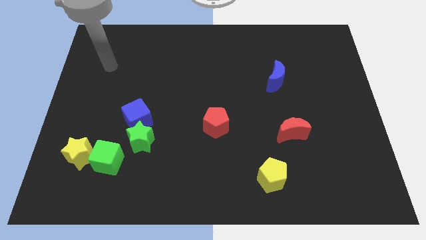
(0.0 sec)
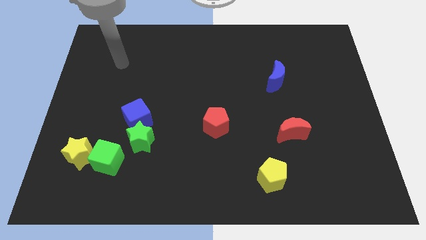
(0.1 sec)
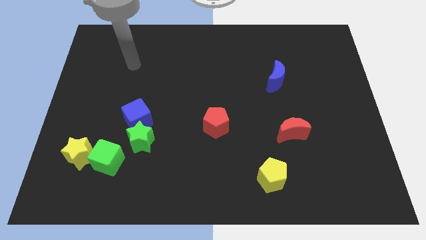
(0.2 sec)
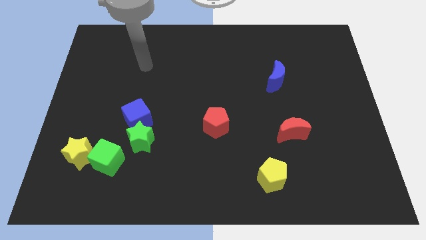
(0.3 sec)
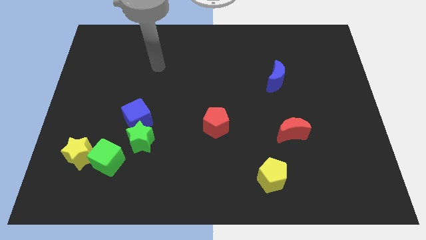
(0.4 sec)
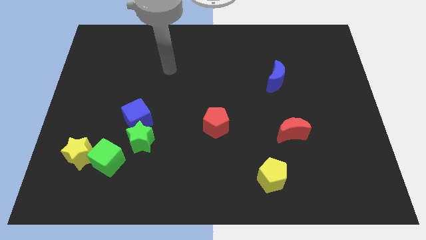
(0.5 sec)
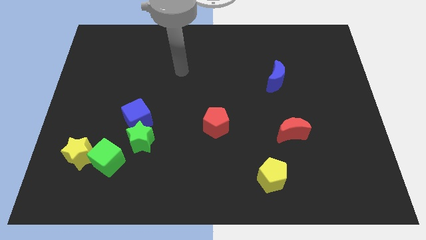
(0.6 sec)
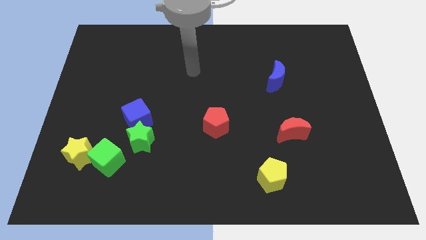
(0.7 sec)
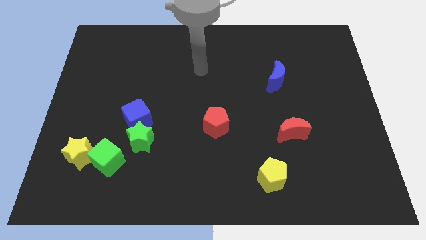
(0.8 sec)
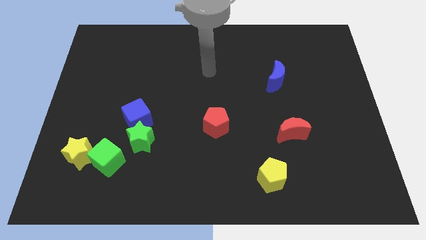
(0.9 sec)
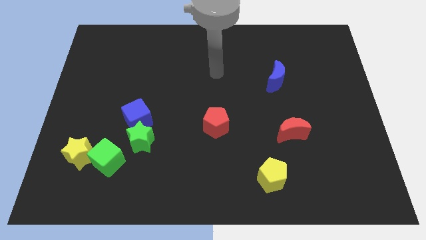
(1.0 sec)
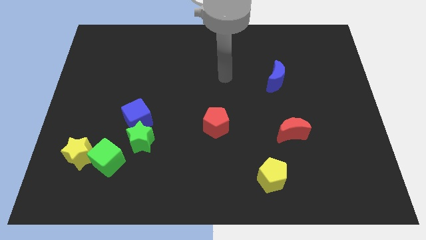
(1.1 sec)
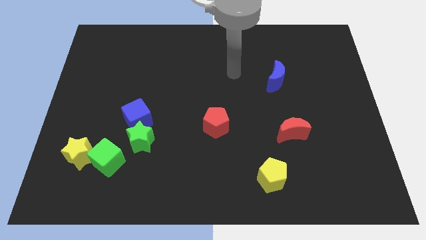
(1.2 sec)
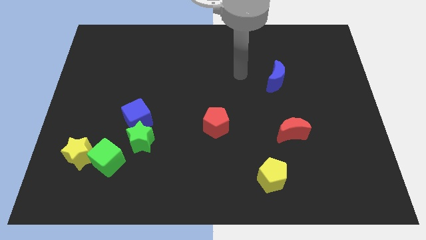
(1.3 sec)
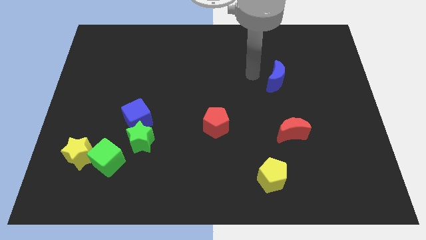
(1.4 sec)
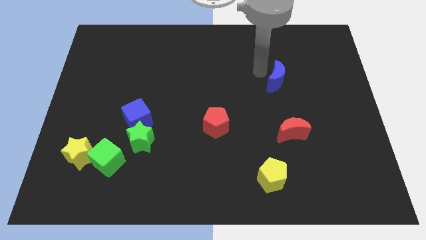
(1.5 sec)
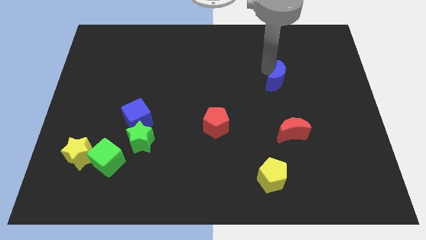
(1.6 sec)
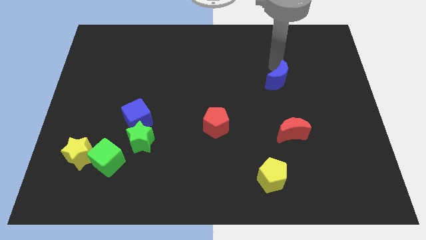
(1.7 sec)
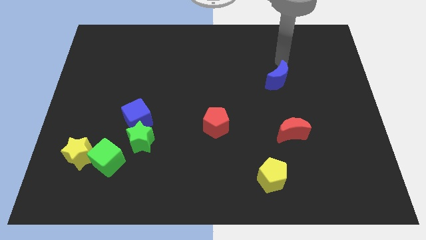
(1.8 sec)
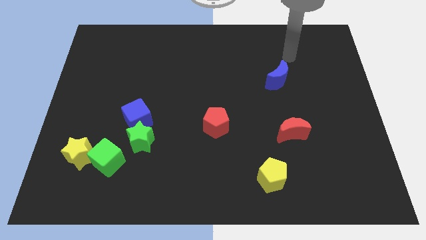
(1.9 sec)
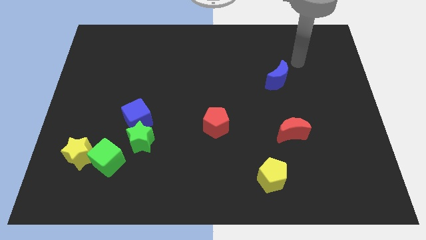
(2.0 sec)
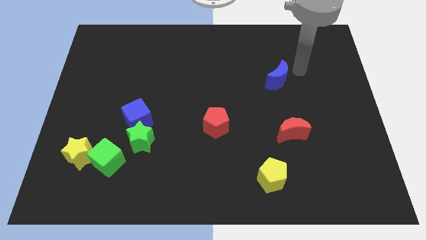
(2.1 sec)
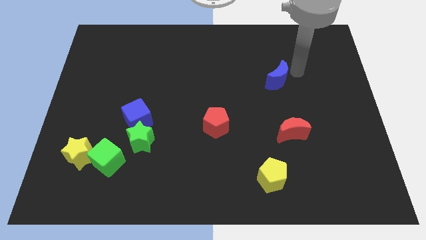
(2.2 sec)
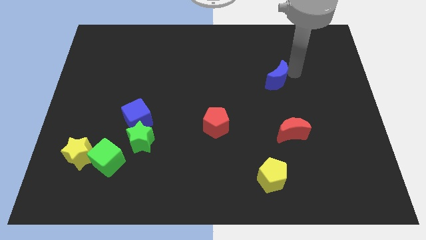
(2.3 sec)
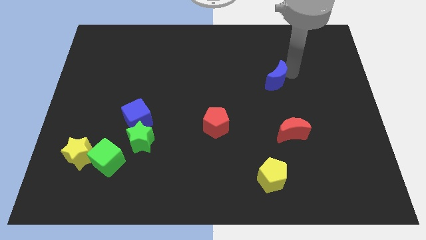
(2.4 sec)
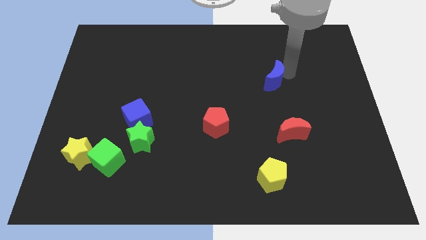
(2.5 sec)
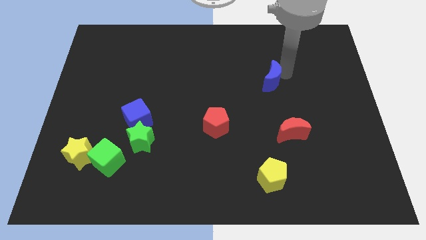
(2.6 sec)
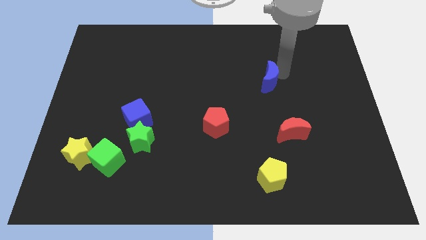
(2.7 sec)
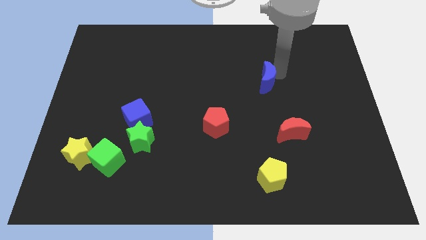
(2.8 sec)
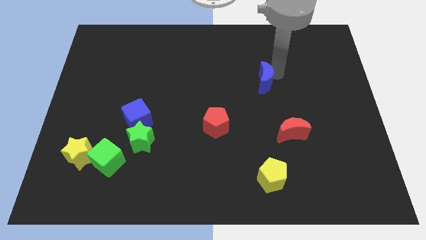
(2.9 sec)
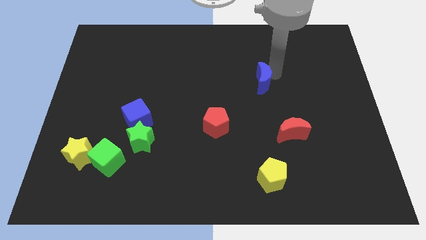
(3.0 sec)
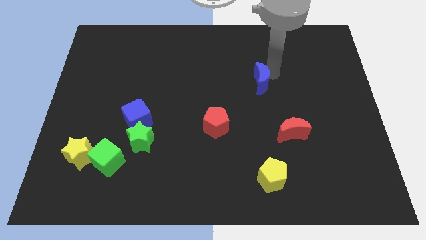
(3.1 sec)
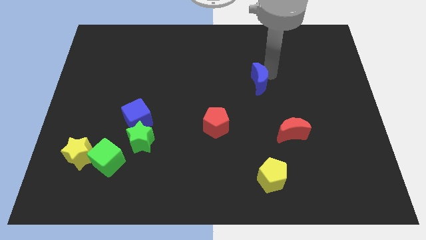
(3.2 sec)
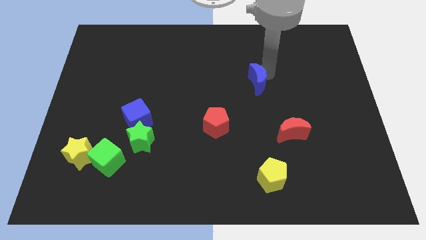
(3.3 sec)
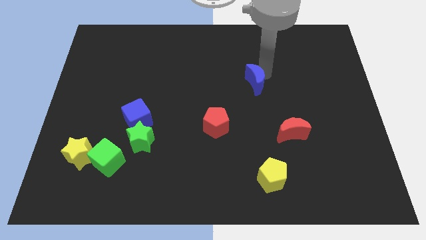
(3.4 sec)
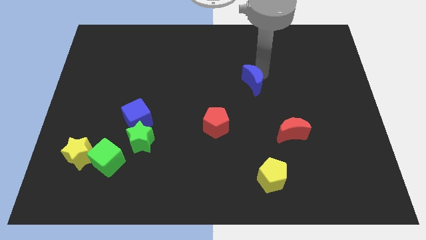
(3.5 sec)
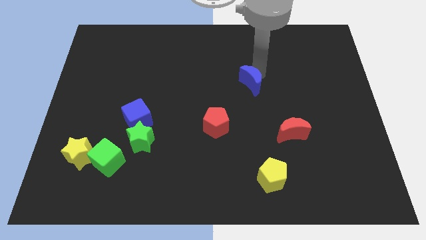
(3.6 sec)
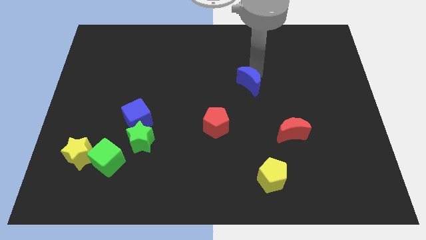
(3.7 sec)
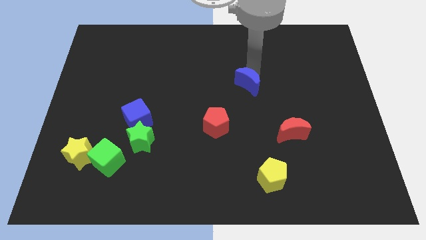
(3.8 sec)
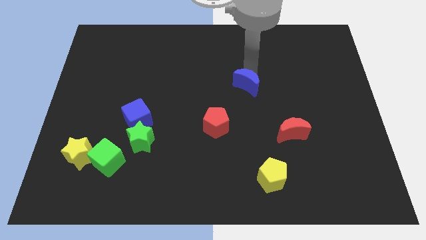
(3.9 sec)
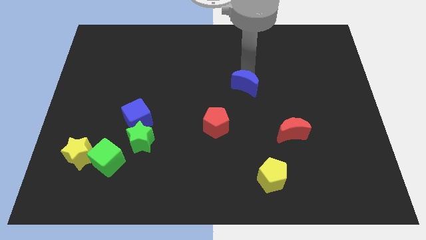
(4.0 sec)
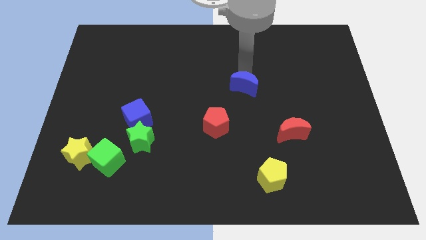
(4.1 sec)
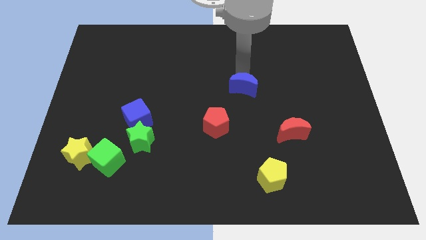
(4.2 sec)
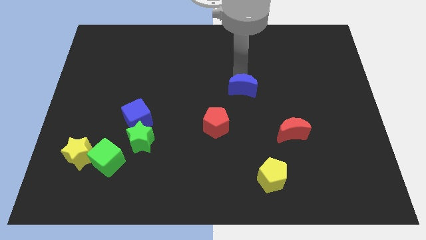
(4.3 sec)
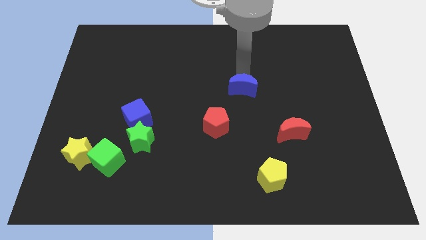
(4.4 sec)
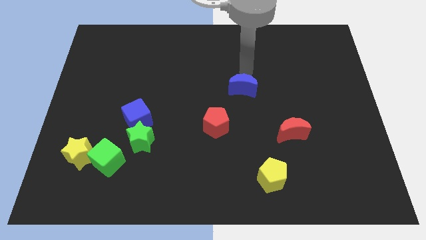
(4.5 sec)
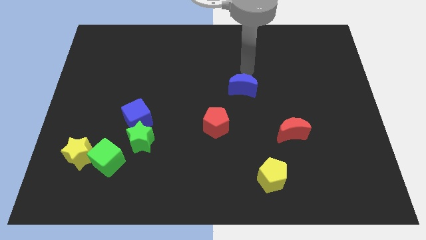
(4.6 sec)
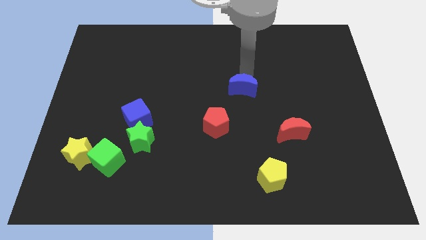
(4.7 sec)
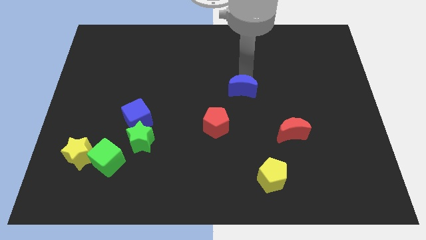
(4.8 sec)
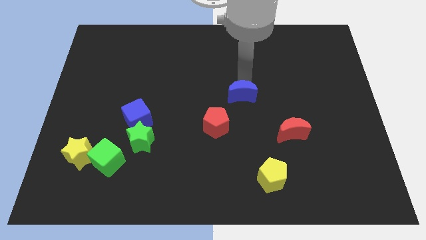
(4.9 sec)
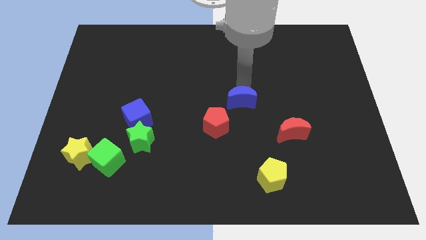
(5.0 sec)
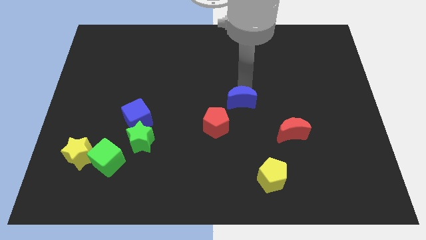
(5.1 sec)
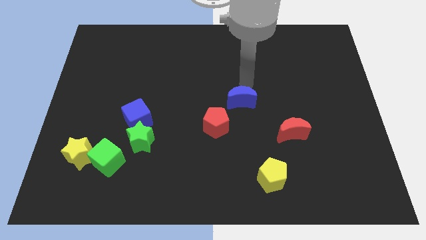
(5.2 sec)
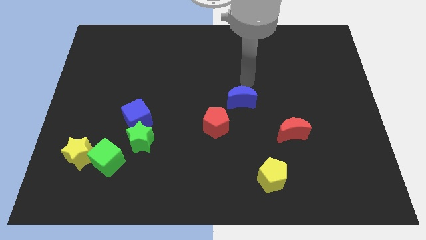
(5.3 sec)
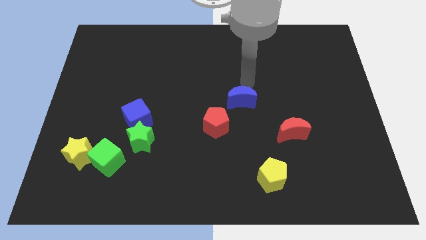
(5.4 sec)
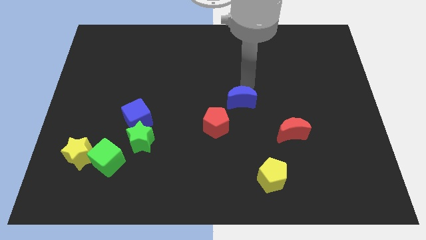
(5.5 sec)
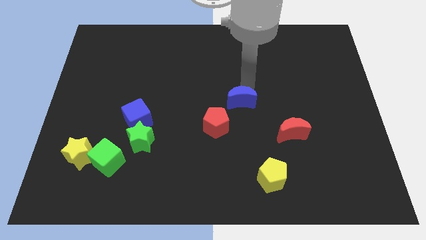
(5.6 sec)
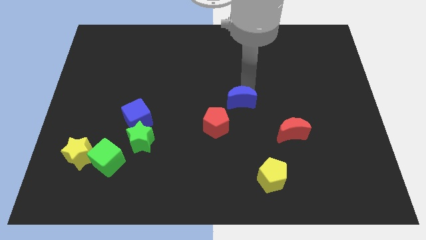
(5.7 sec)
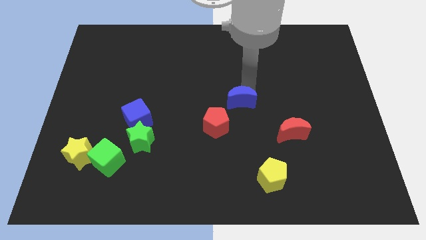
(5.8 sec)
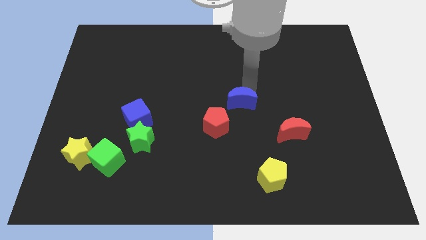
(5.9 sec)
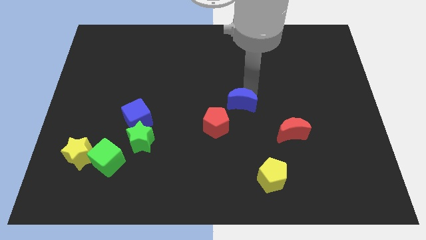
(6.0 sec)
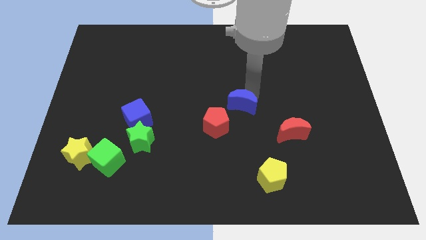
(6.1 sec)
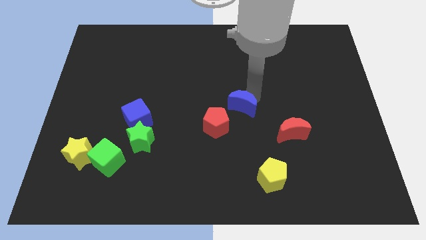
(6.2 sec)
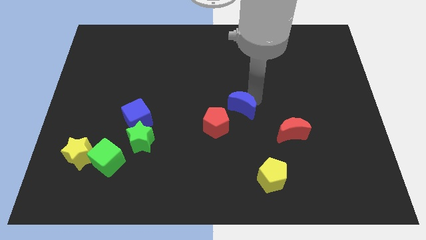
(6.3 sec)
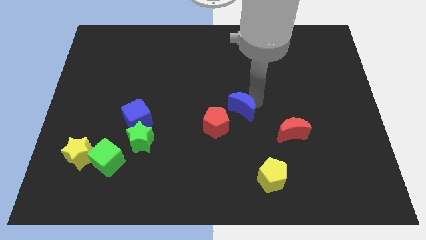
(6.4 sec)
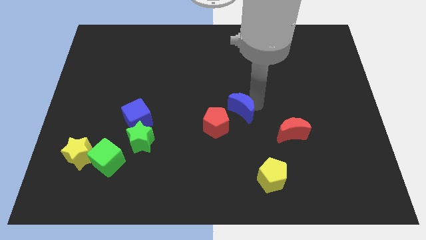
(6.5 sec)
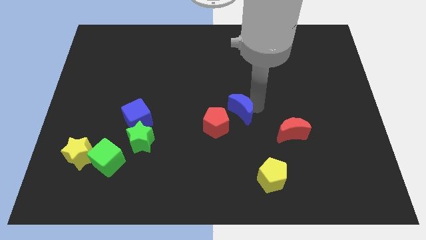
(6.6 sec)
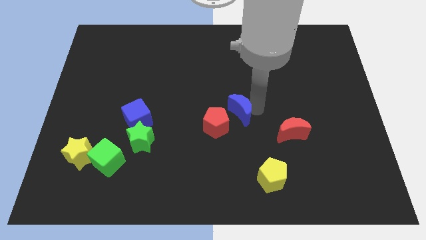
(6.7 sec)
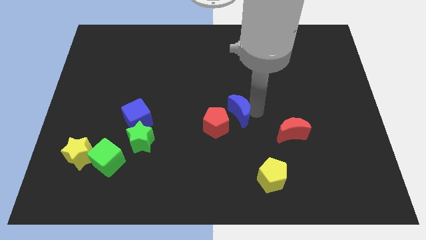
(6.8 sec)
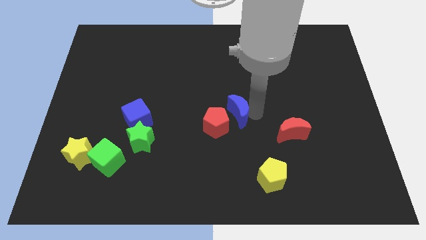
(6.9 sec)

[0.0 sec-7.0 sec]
slide the blue moon close to the red pentagon
